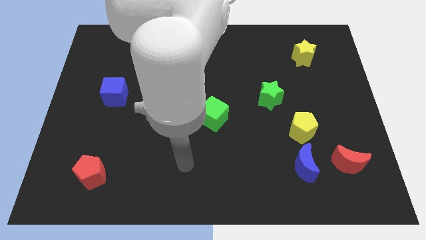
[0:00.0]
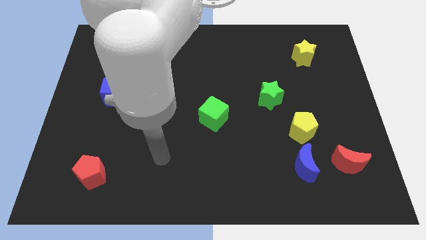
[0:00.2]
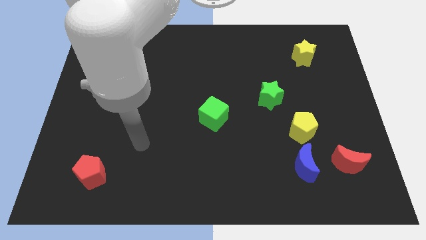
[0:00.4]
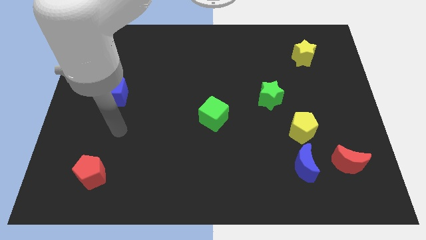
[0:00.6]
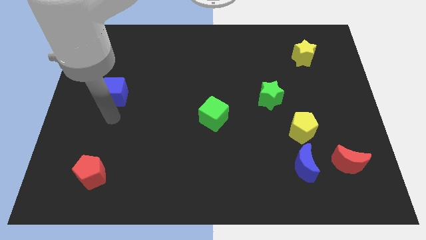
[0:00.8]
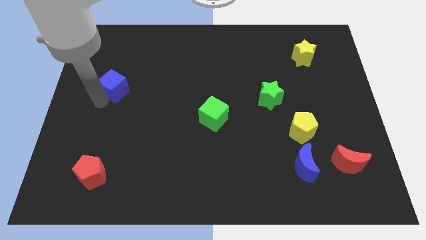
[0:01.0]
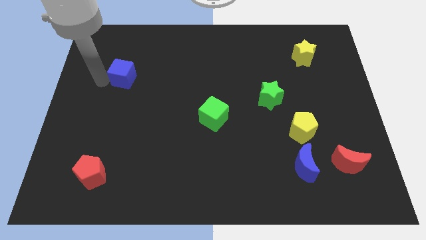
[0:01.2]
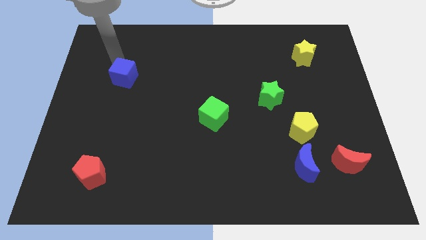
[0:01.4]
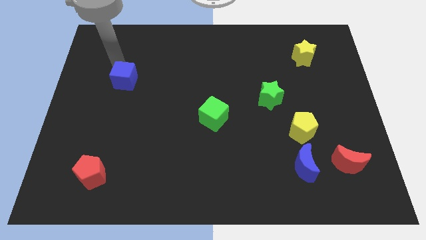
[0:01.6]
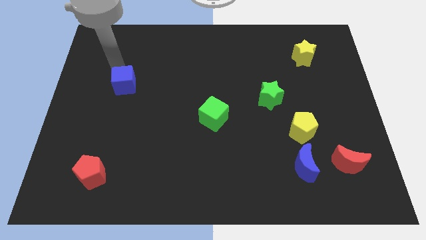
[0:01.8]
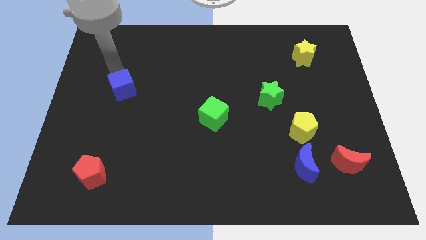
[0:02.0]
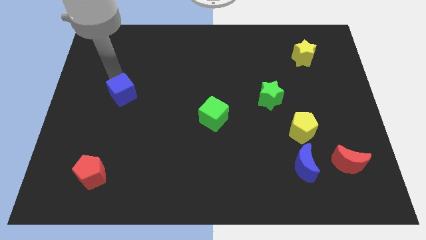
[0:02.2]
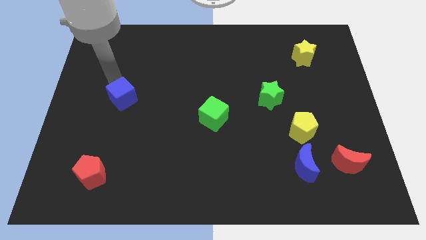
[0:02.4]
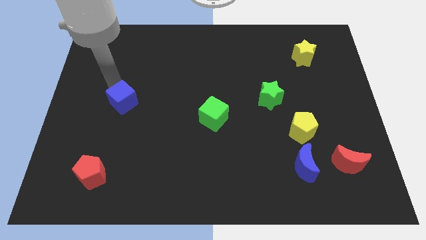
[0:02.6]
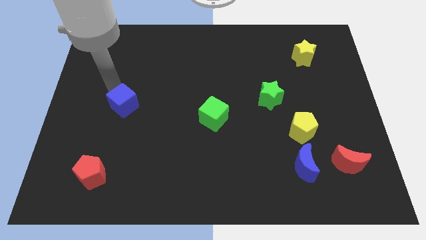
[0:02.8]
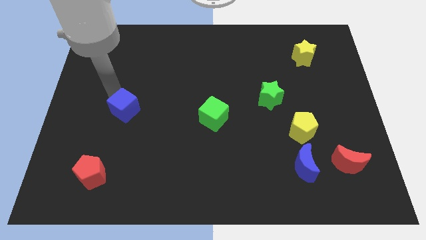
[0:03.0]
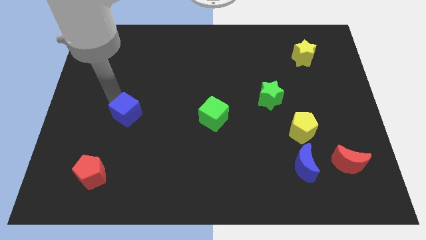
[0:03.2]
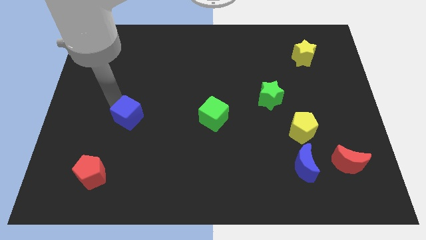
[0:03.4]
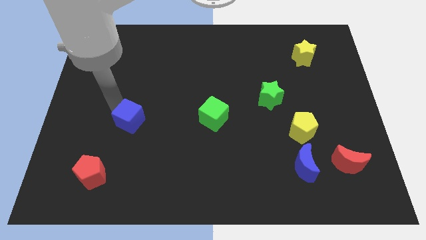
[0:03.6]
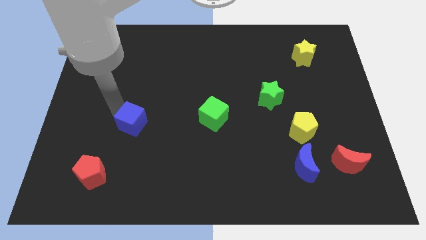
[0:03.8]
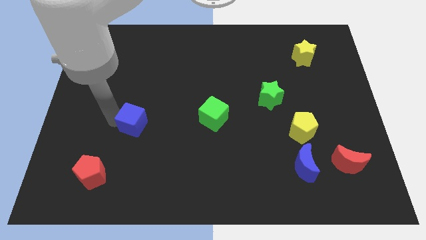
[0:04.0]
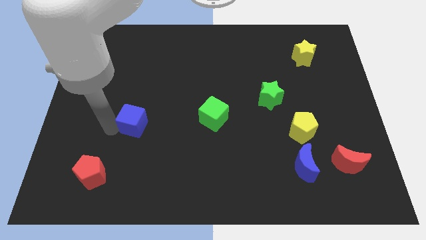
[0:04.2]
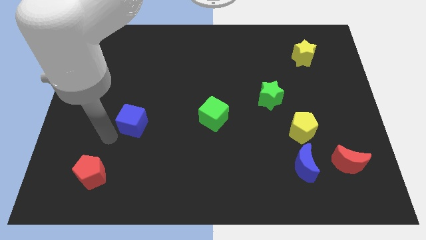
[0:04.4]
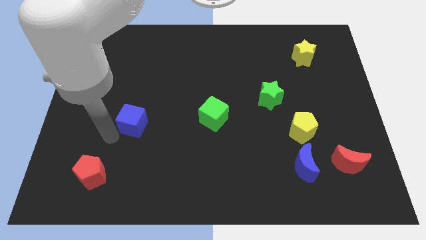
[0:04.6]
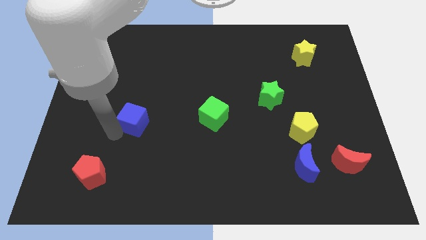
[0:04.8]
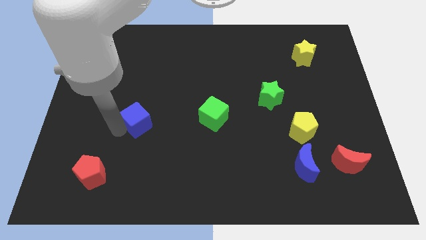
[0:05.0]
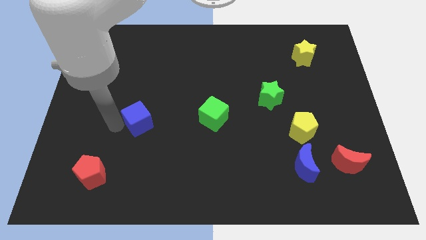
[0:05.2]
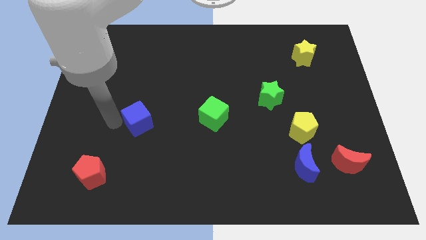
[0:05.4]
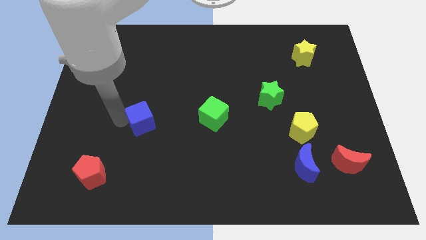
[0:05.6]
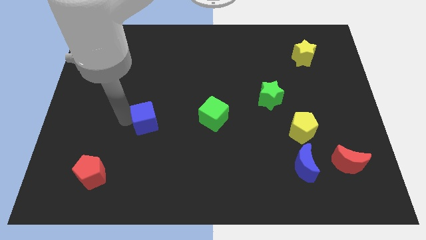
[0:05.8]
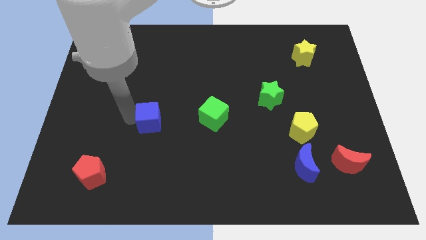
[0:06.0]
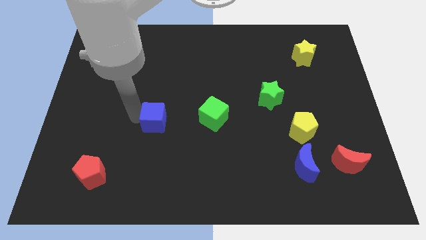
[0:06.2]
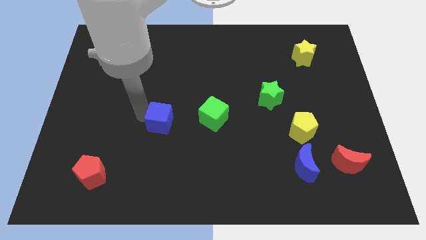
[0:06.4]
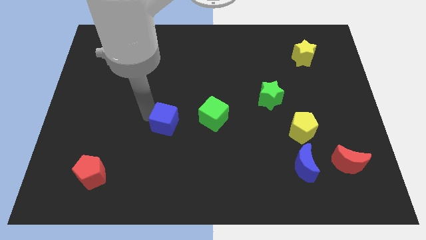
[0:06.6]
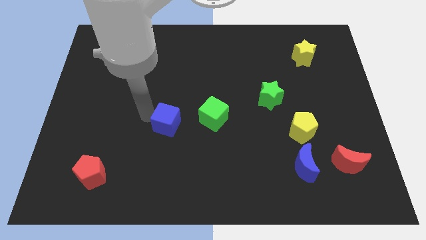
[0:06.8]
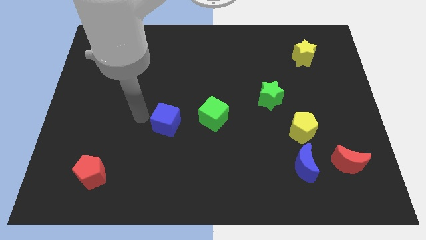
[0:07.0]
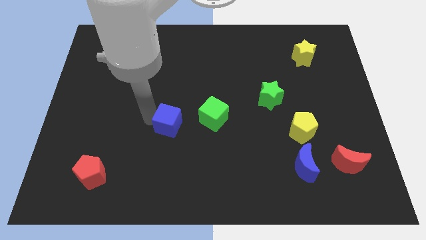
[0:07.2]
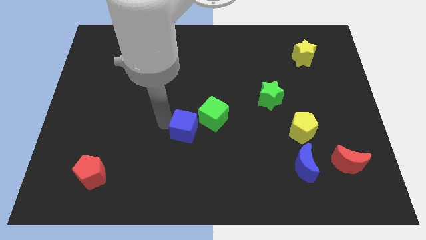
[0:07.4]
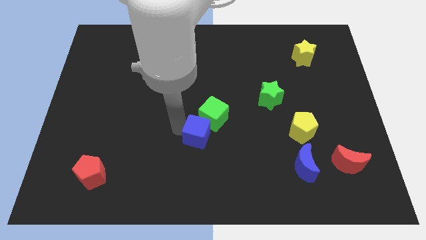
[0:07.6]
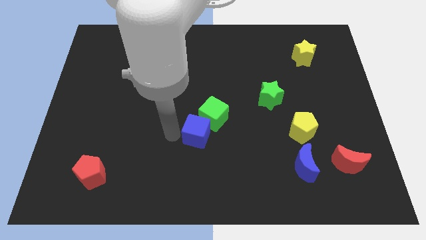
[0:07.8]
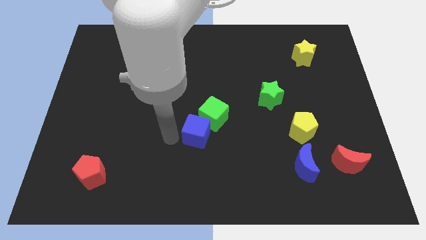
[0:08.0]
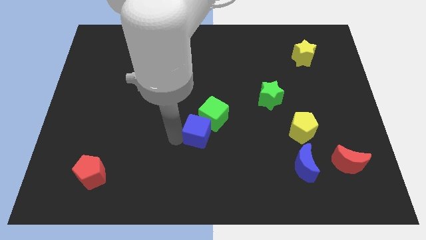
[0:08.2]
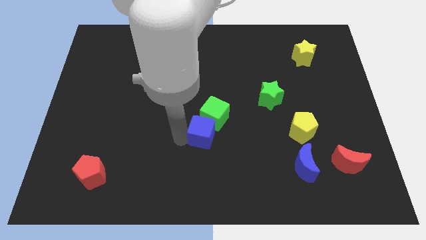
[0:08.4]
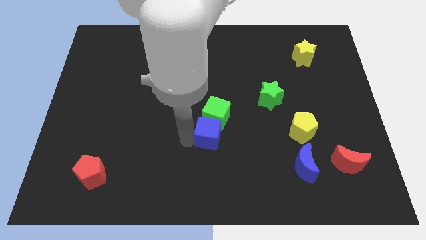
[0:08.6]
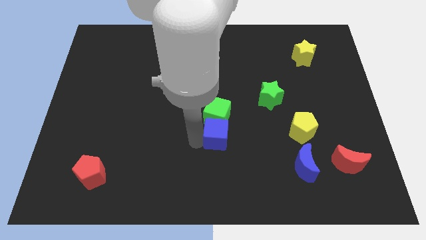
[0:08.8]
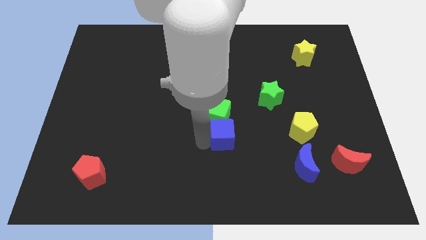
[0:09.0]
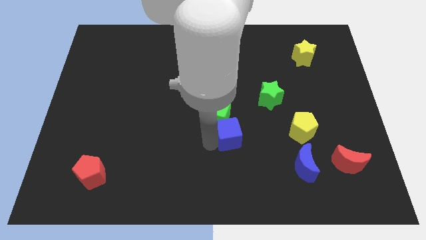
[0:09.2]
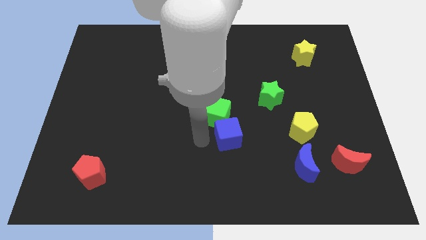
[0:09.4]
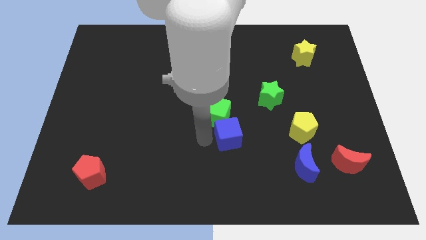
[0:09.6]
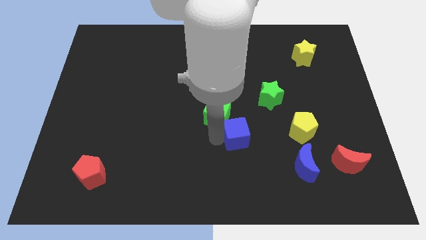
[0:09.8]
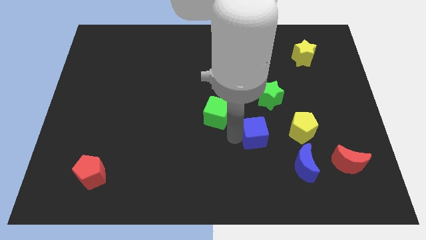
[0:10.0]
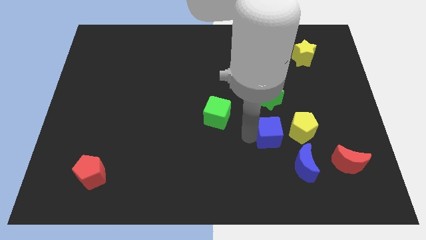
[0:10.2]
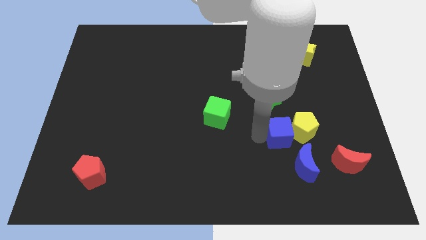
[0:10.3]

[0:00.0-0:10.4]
put the blue cube to the yellow pentagon

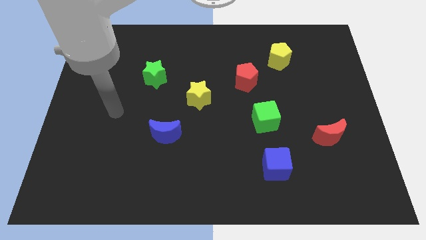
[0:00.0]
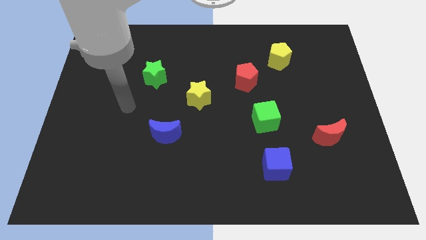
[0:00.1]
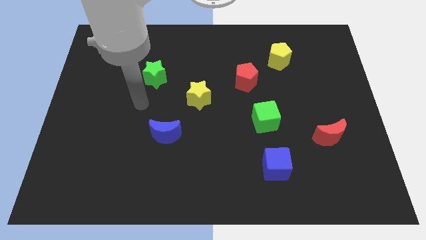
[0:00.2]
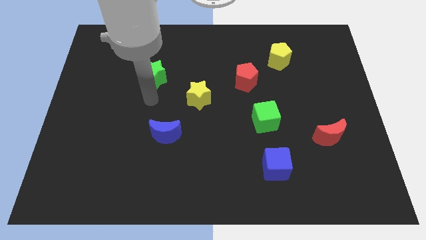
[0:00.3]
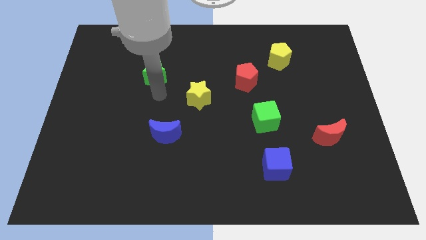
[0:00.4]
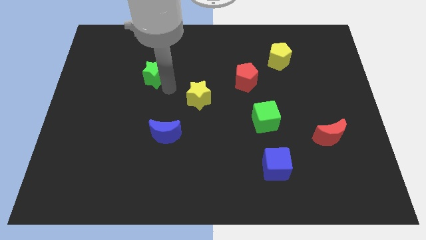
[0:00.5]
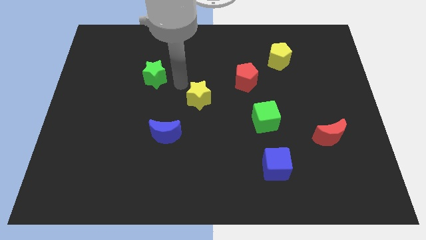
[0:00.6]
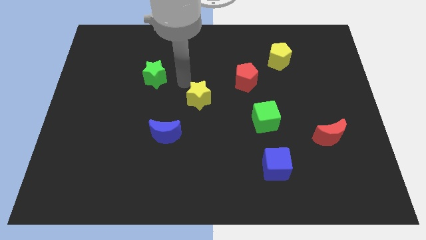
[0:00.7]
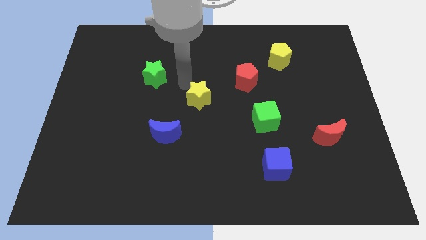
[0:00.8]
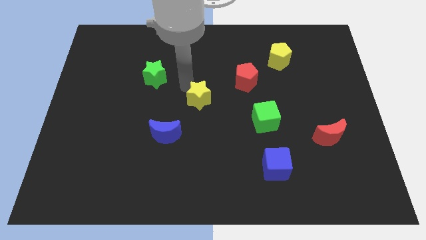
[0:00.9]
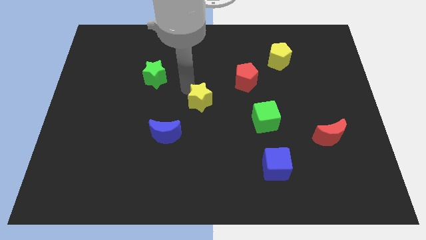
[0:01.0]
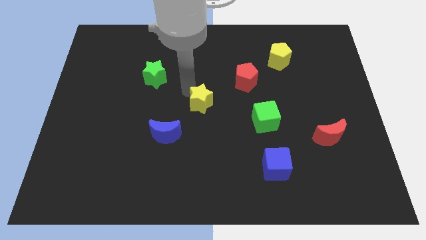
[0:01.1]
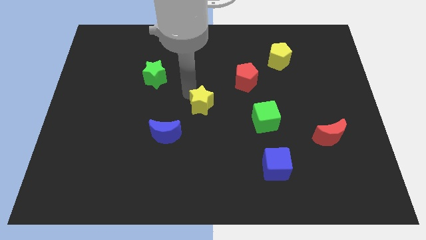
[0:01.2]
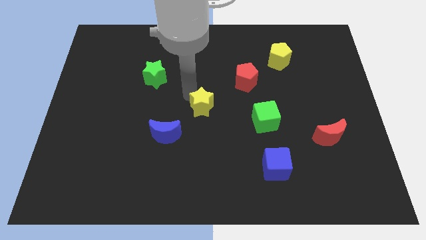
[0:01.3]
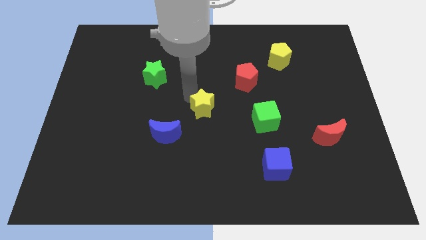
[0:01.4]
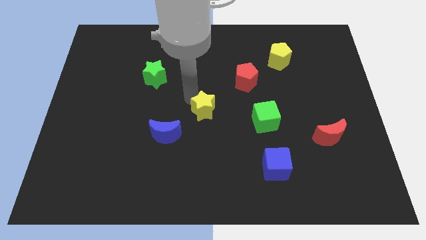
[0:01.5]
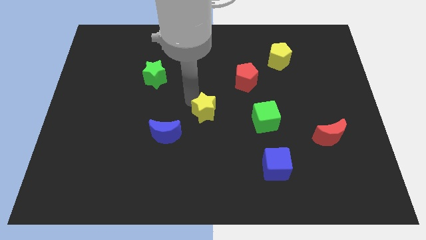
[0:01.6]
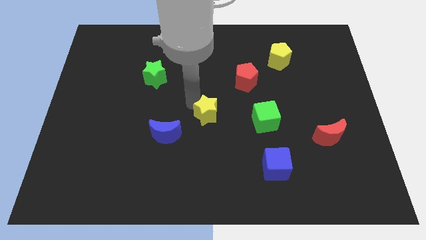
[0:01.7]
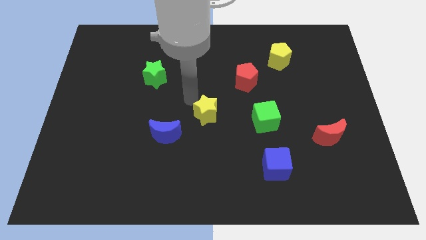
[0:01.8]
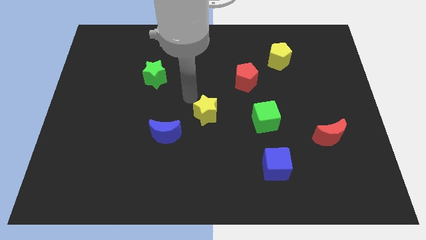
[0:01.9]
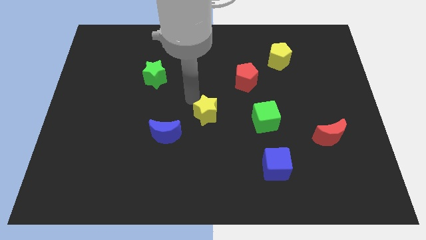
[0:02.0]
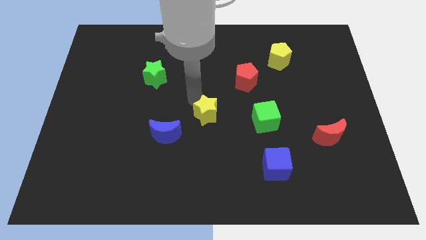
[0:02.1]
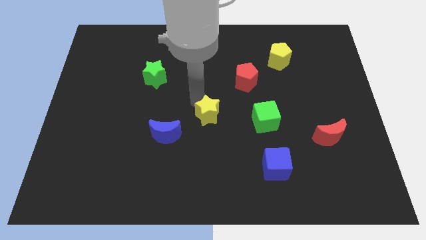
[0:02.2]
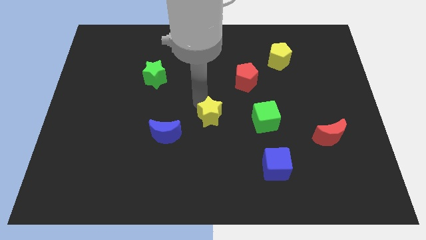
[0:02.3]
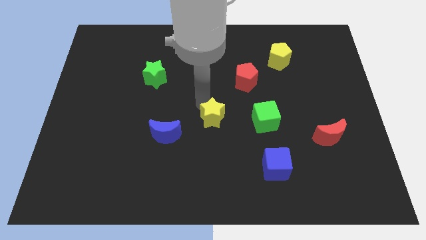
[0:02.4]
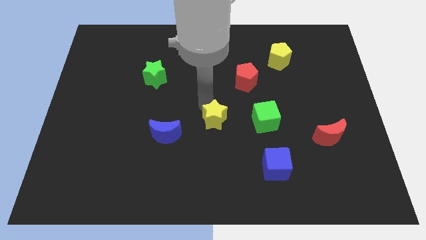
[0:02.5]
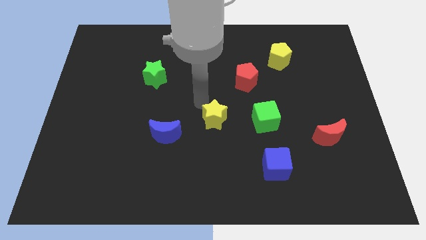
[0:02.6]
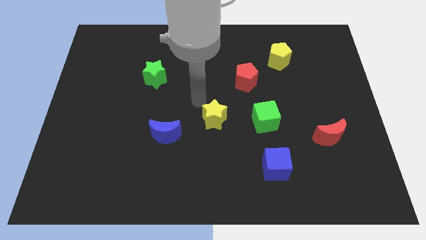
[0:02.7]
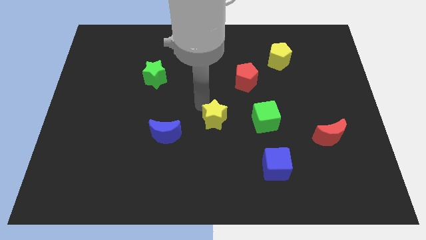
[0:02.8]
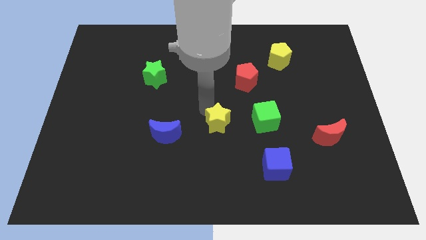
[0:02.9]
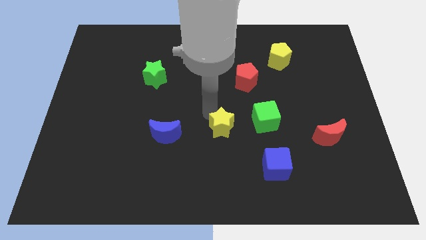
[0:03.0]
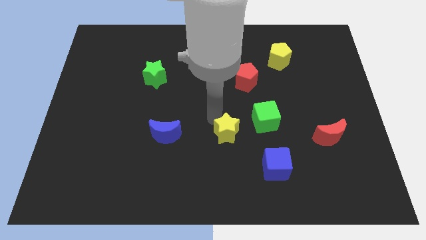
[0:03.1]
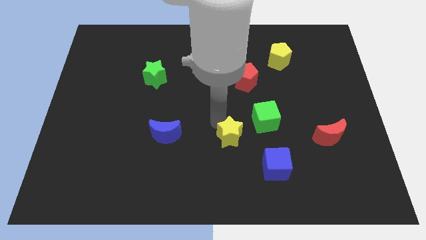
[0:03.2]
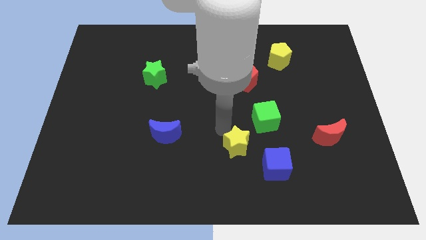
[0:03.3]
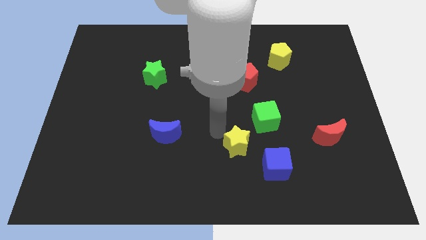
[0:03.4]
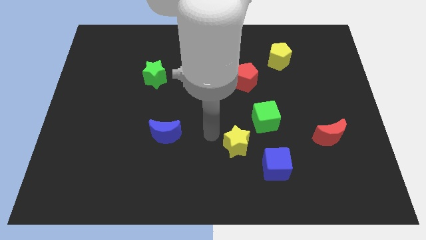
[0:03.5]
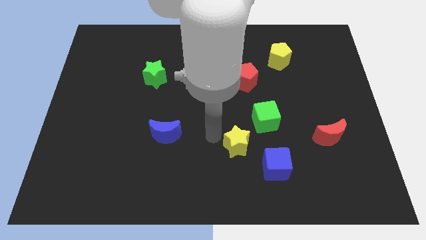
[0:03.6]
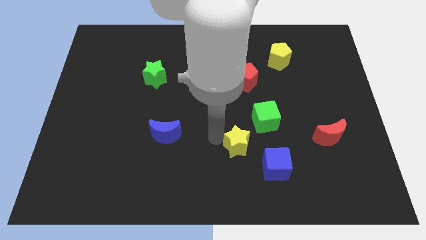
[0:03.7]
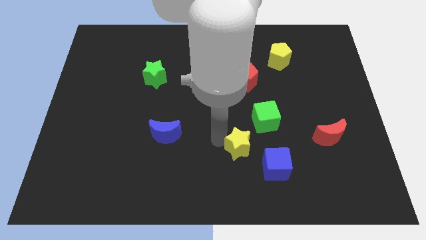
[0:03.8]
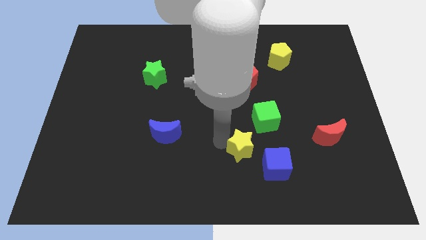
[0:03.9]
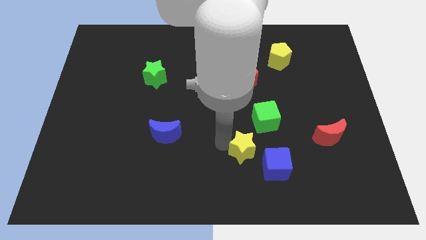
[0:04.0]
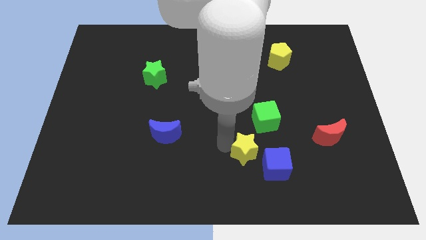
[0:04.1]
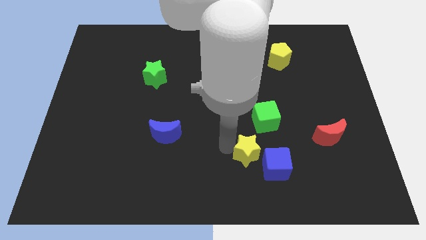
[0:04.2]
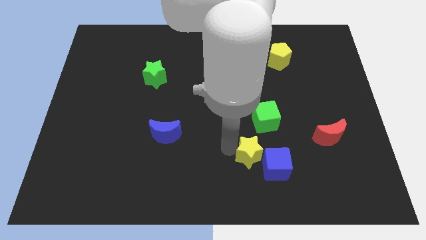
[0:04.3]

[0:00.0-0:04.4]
move the yellow star to the blue cube
